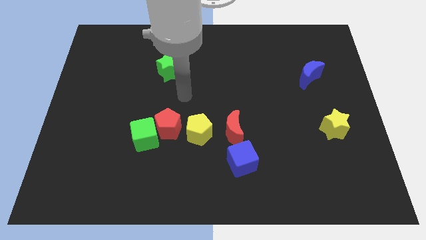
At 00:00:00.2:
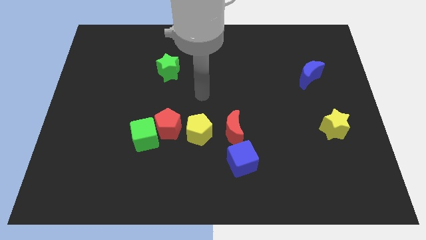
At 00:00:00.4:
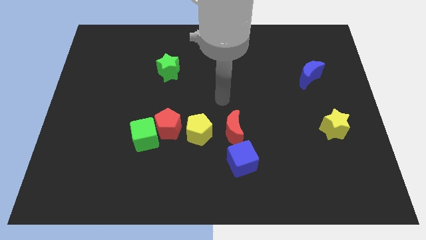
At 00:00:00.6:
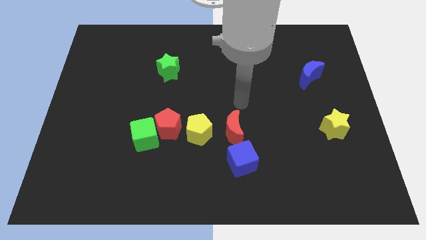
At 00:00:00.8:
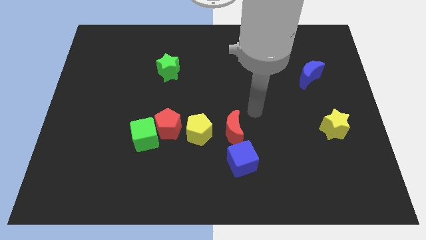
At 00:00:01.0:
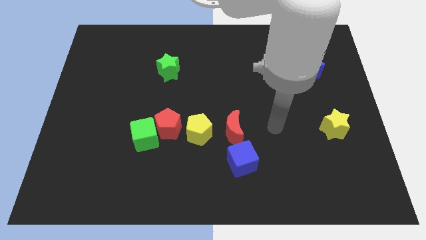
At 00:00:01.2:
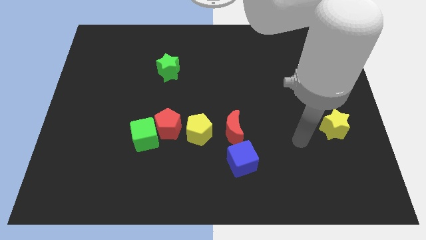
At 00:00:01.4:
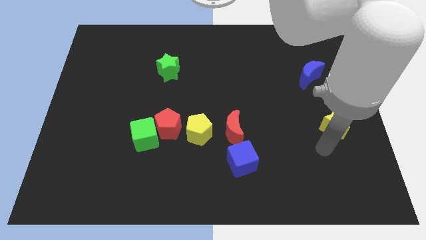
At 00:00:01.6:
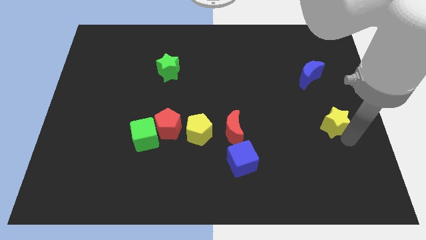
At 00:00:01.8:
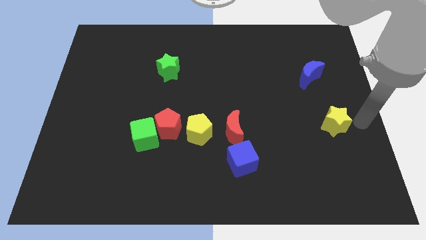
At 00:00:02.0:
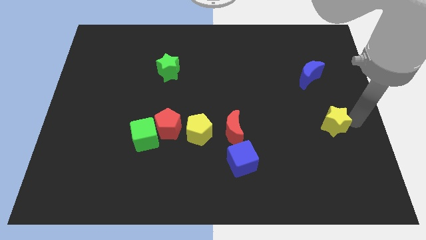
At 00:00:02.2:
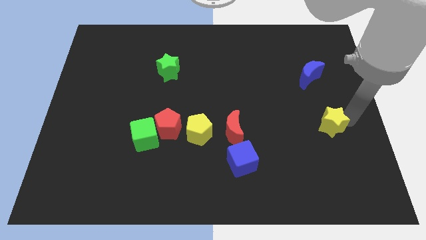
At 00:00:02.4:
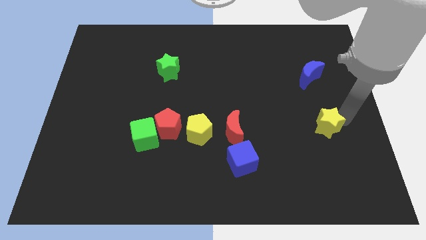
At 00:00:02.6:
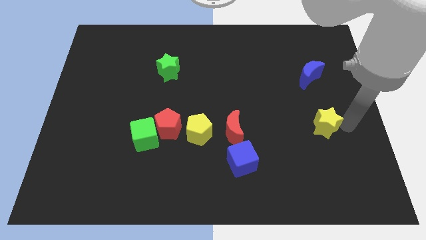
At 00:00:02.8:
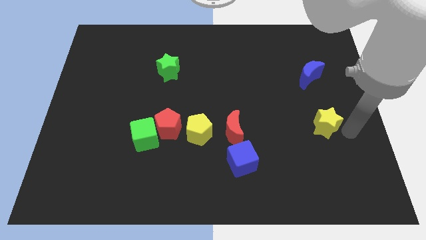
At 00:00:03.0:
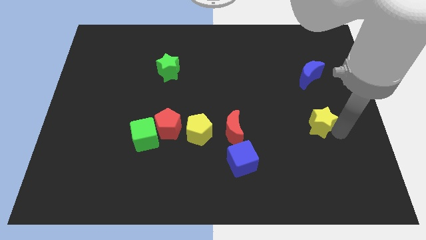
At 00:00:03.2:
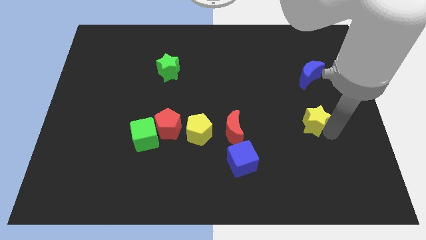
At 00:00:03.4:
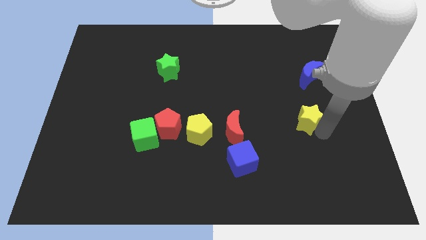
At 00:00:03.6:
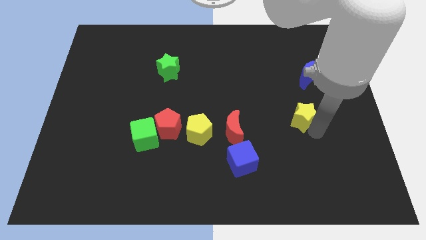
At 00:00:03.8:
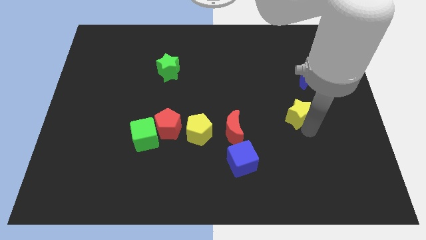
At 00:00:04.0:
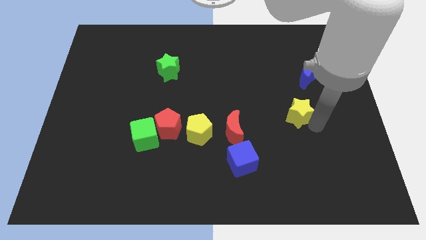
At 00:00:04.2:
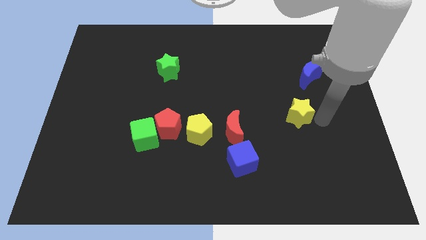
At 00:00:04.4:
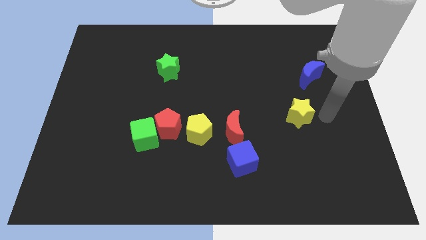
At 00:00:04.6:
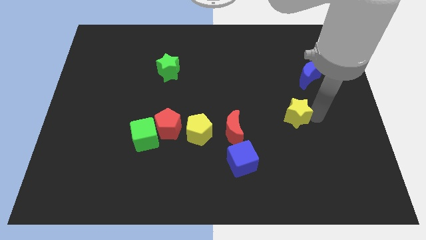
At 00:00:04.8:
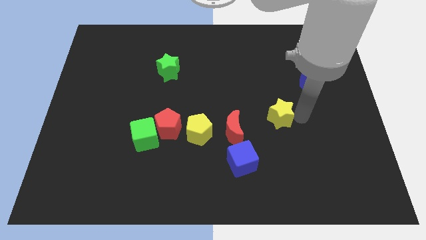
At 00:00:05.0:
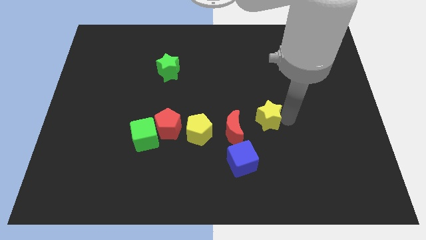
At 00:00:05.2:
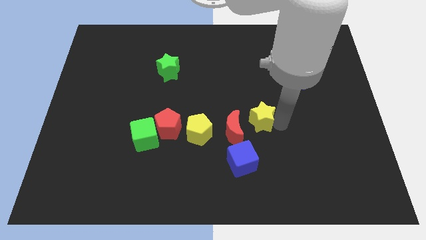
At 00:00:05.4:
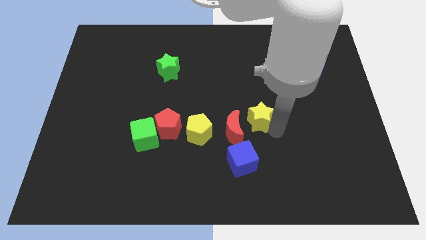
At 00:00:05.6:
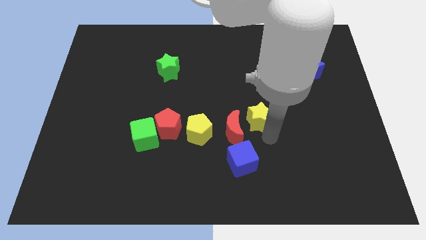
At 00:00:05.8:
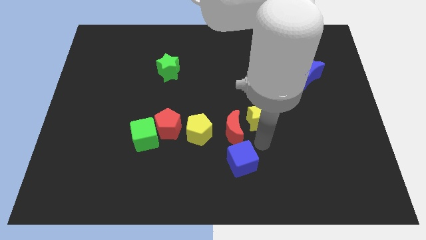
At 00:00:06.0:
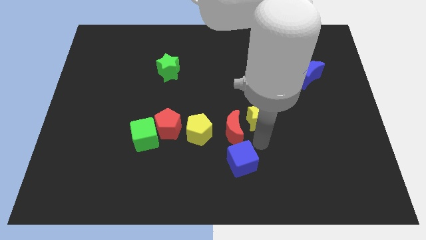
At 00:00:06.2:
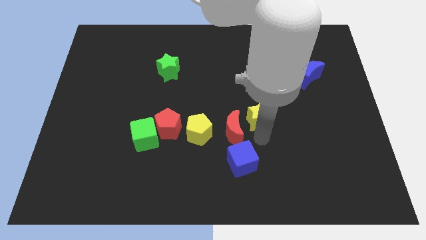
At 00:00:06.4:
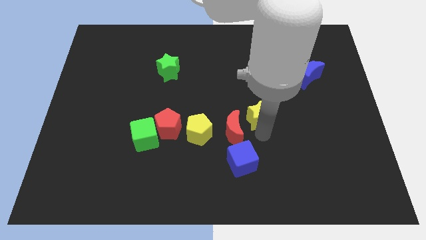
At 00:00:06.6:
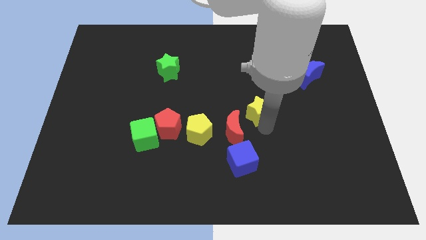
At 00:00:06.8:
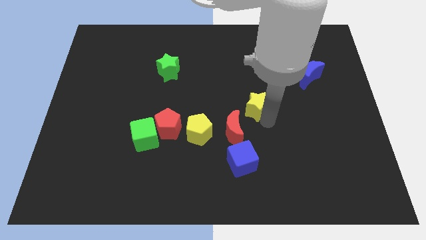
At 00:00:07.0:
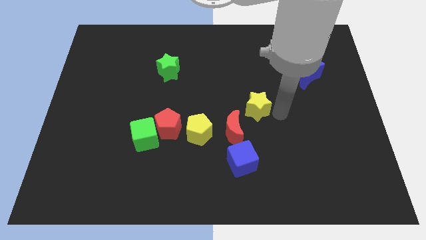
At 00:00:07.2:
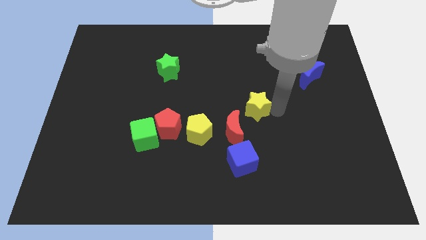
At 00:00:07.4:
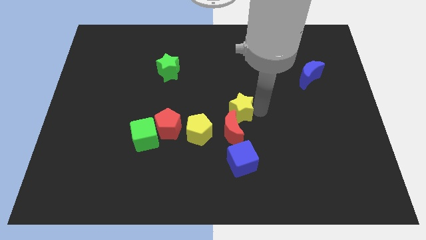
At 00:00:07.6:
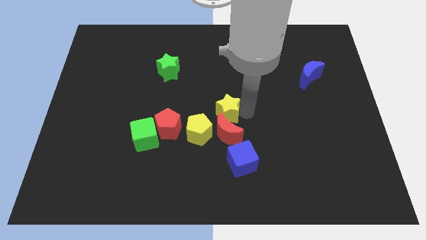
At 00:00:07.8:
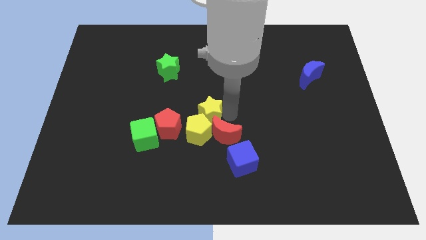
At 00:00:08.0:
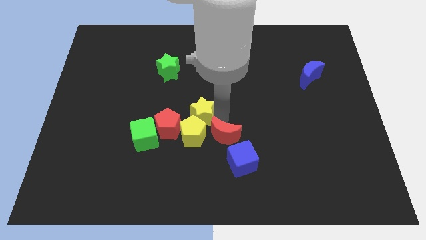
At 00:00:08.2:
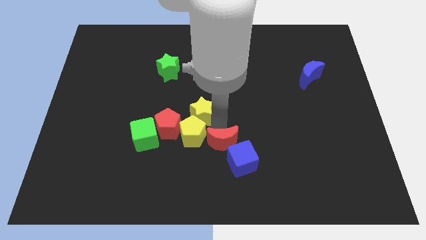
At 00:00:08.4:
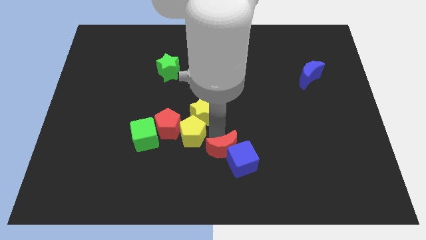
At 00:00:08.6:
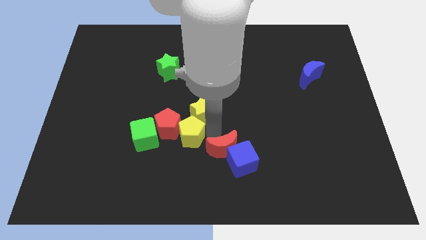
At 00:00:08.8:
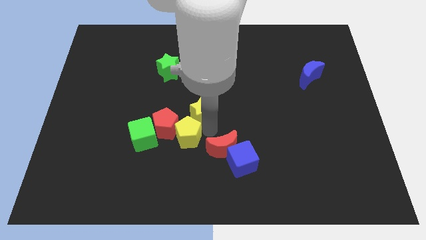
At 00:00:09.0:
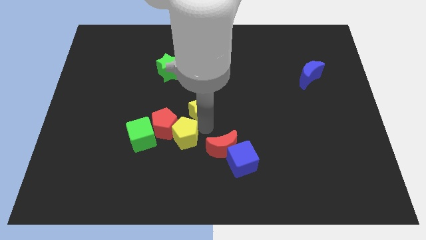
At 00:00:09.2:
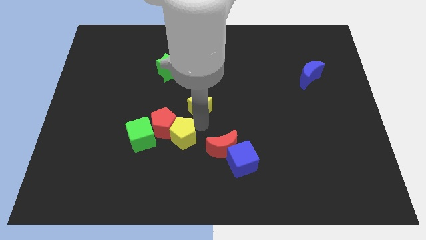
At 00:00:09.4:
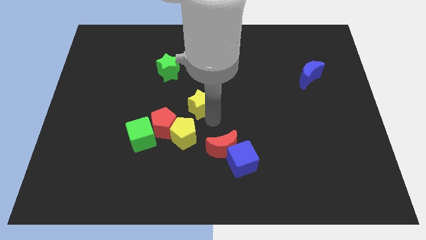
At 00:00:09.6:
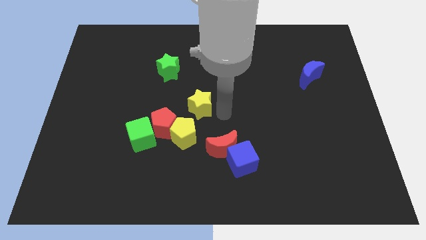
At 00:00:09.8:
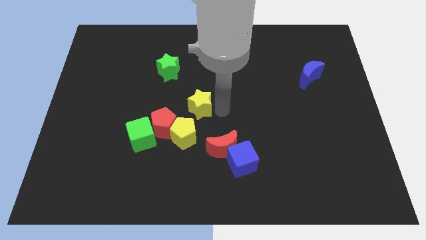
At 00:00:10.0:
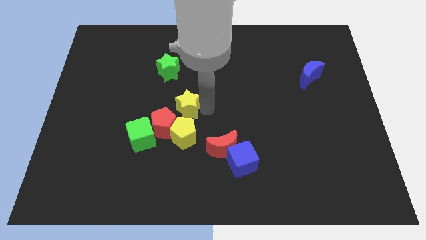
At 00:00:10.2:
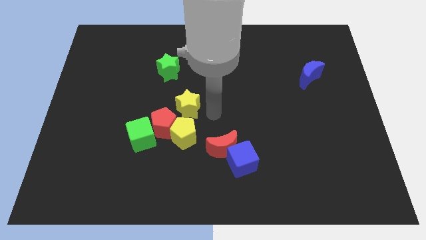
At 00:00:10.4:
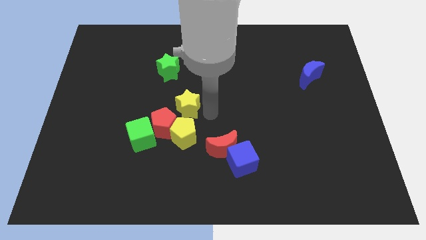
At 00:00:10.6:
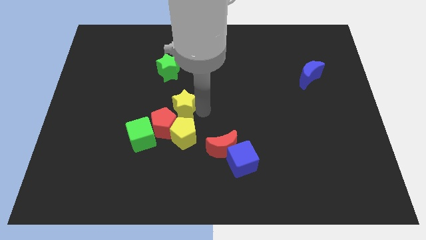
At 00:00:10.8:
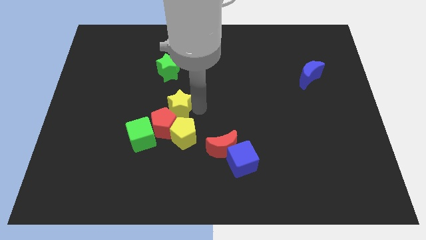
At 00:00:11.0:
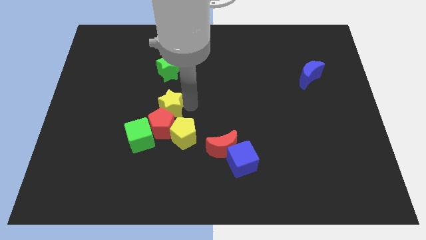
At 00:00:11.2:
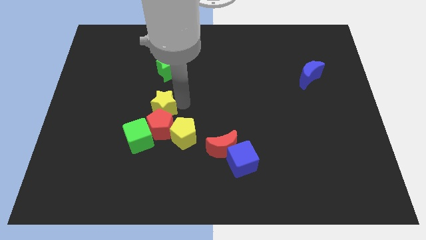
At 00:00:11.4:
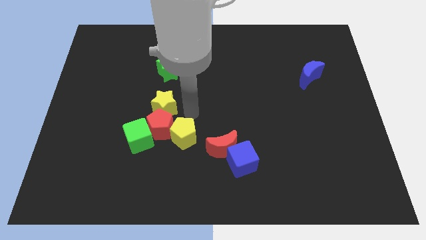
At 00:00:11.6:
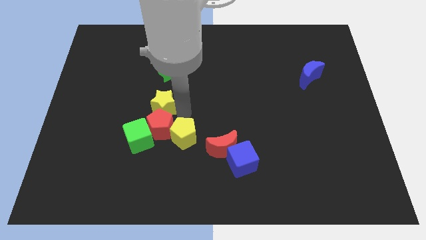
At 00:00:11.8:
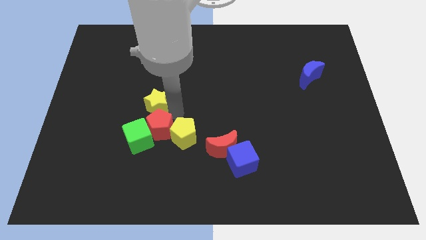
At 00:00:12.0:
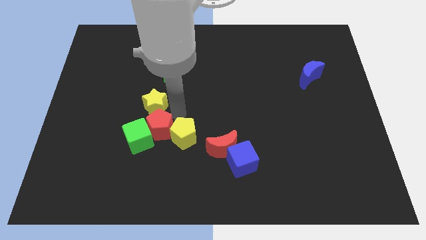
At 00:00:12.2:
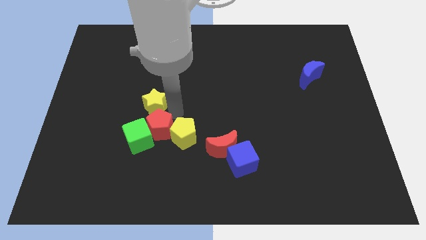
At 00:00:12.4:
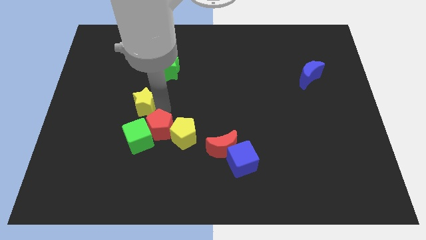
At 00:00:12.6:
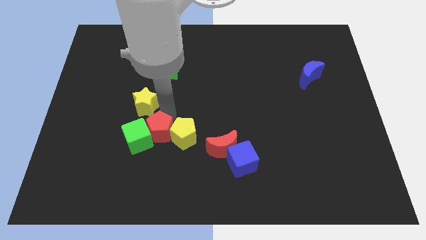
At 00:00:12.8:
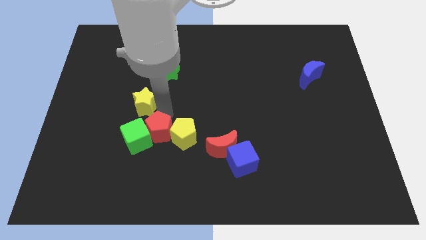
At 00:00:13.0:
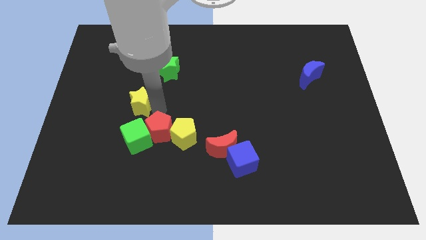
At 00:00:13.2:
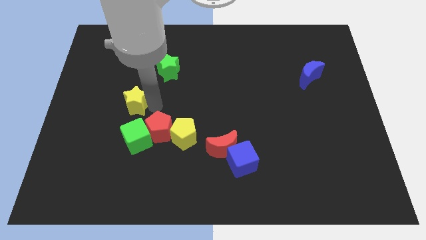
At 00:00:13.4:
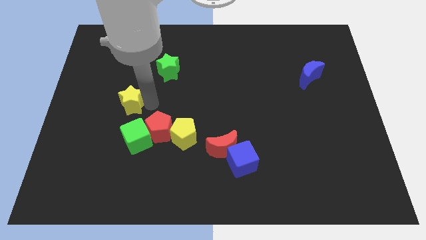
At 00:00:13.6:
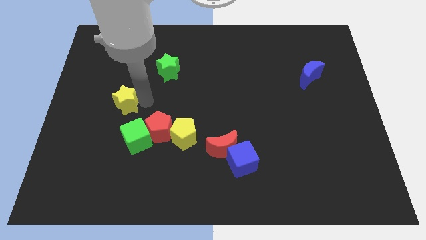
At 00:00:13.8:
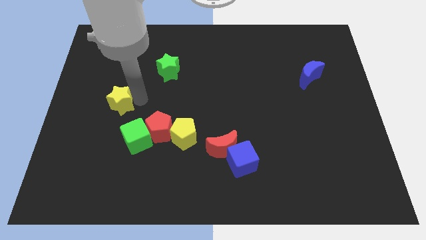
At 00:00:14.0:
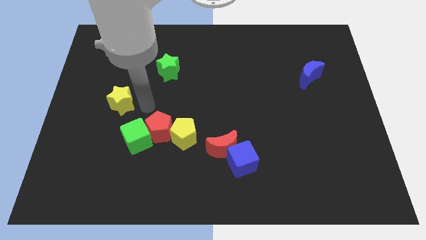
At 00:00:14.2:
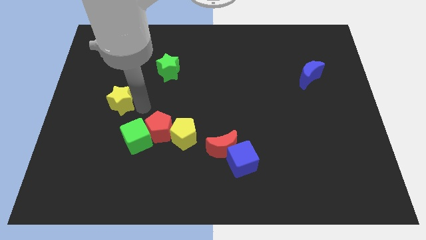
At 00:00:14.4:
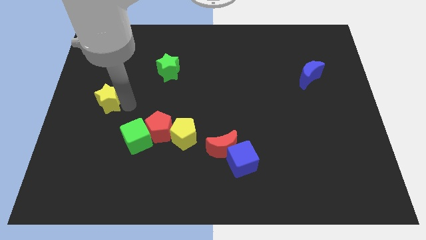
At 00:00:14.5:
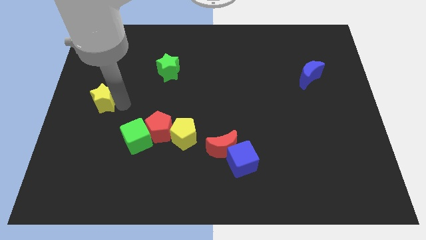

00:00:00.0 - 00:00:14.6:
push the yellow star to the left side of the board
